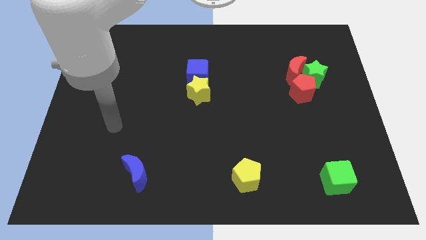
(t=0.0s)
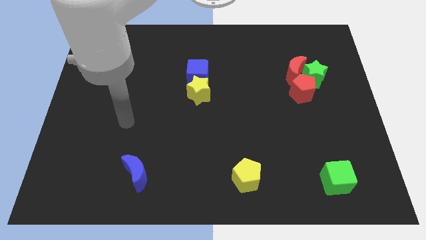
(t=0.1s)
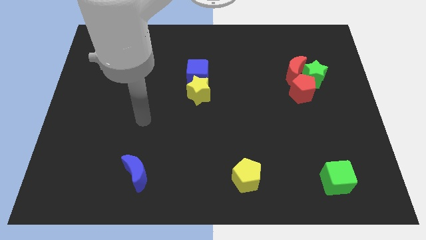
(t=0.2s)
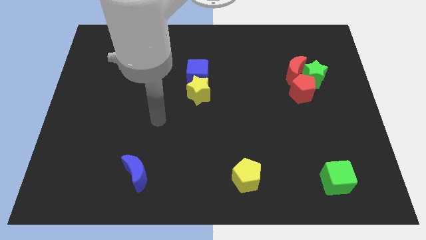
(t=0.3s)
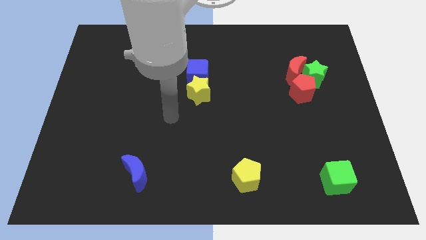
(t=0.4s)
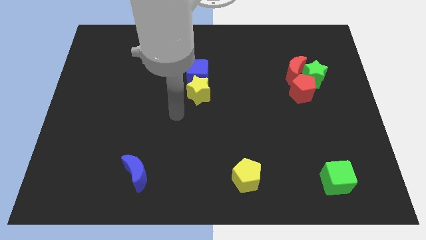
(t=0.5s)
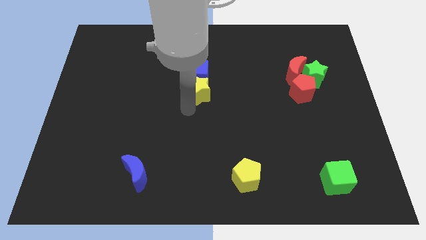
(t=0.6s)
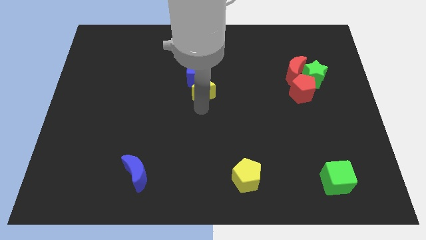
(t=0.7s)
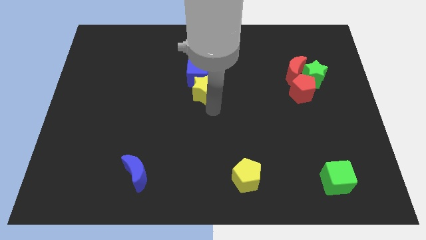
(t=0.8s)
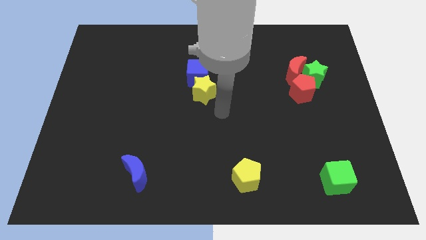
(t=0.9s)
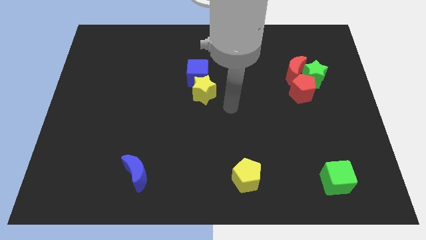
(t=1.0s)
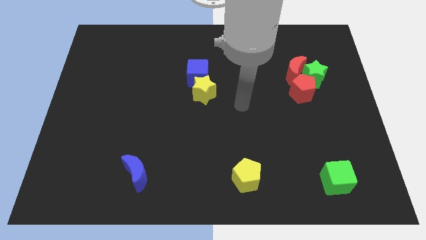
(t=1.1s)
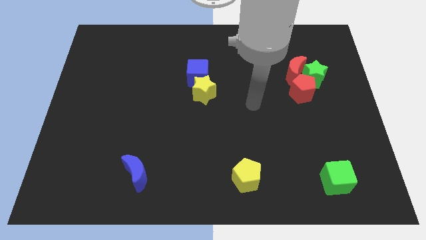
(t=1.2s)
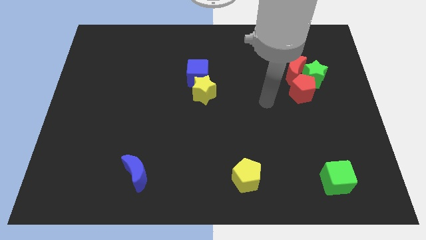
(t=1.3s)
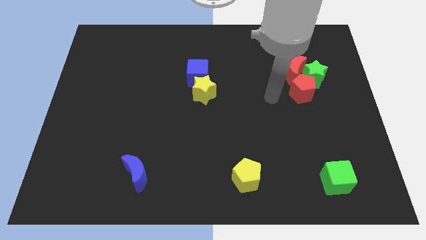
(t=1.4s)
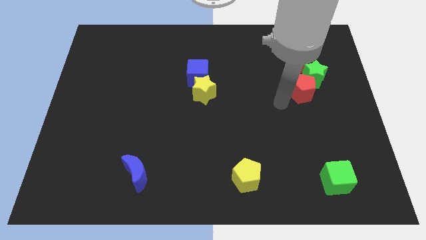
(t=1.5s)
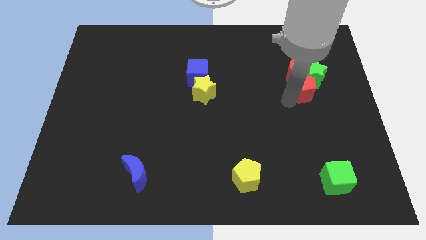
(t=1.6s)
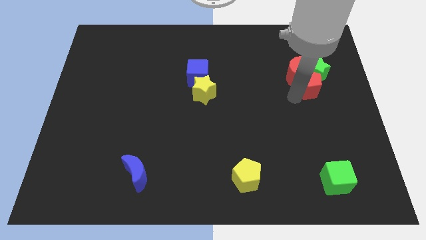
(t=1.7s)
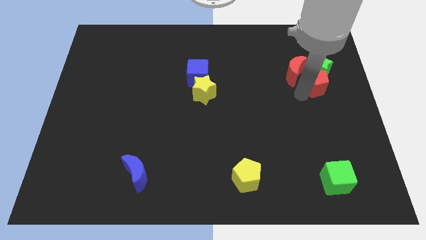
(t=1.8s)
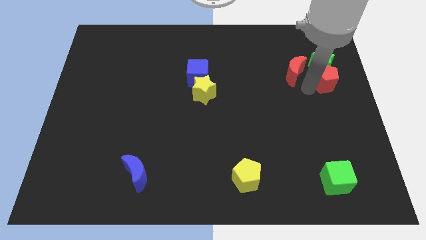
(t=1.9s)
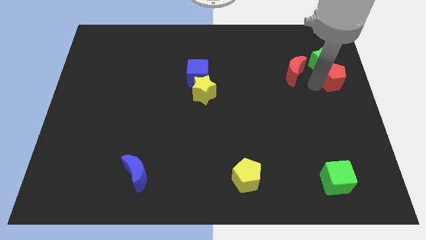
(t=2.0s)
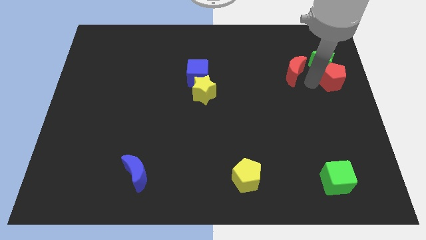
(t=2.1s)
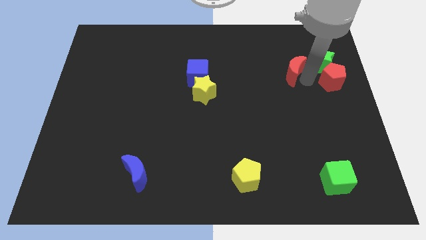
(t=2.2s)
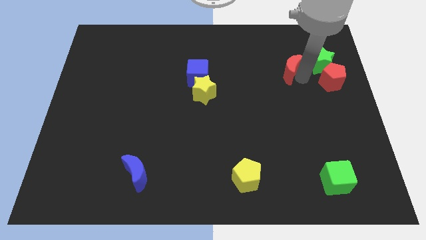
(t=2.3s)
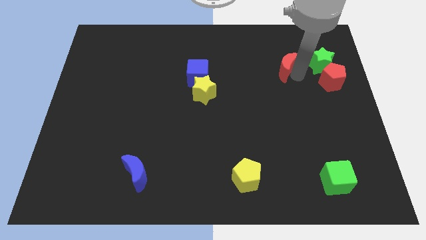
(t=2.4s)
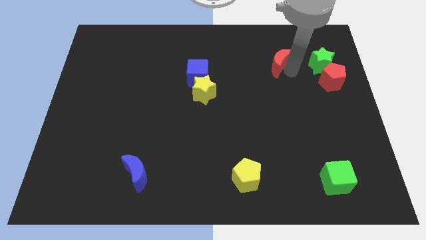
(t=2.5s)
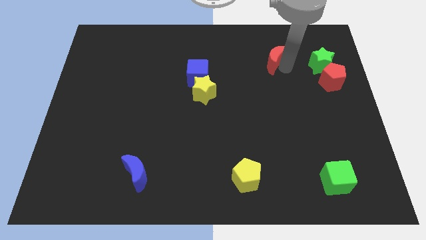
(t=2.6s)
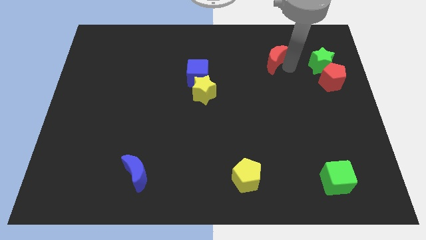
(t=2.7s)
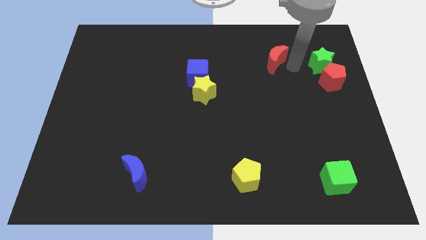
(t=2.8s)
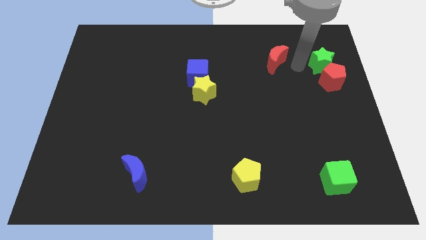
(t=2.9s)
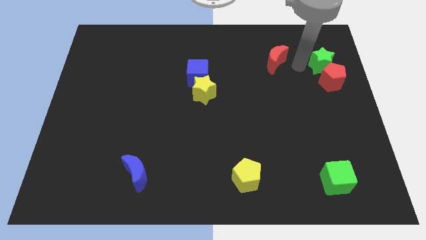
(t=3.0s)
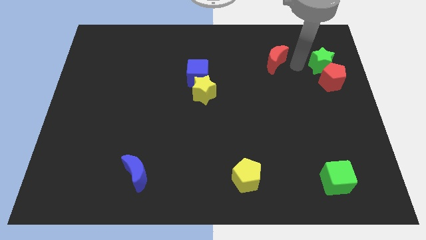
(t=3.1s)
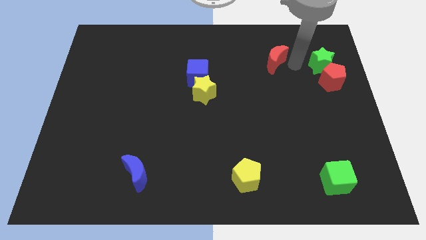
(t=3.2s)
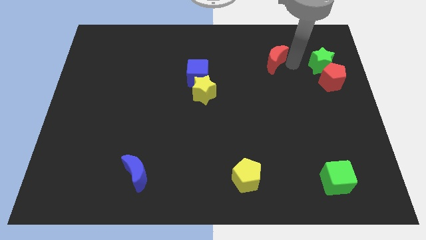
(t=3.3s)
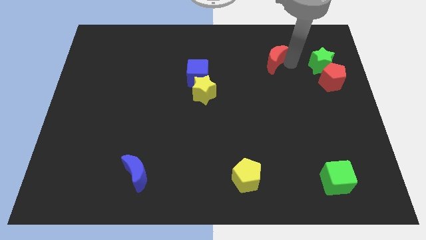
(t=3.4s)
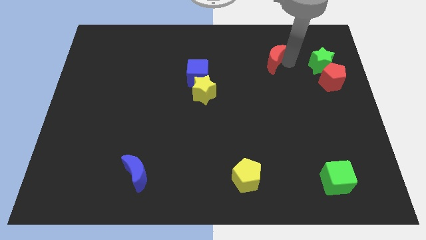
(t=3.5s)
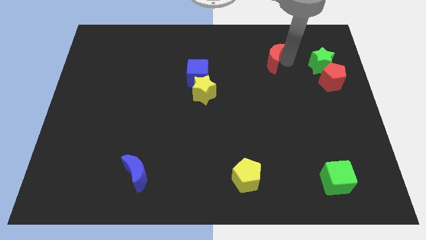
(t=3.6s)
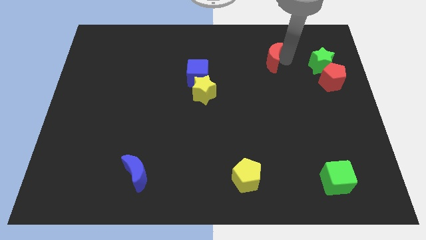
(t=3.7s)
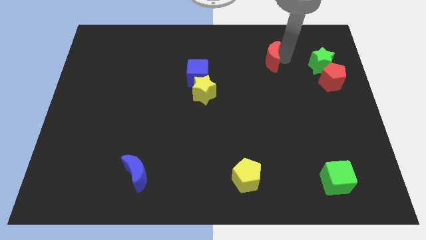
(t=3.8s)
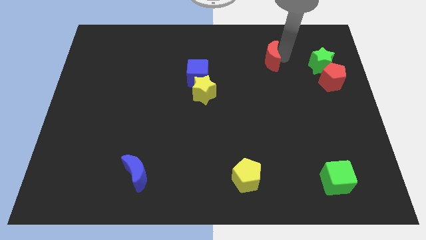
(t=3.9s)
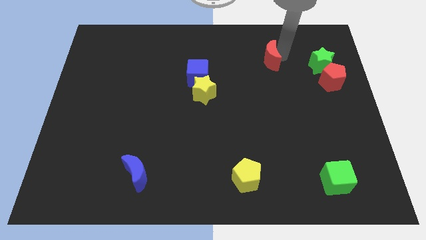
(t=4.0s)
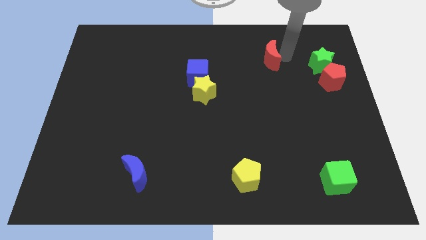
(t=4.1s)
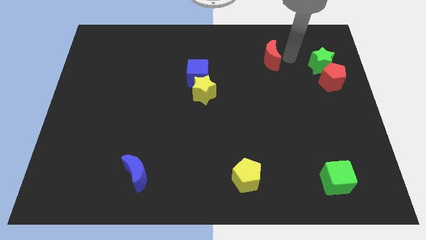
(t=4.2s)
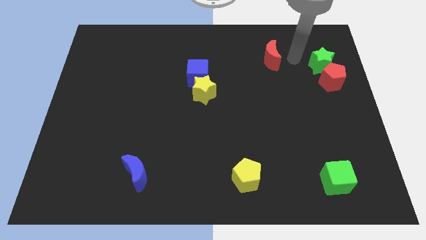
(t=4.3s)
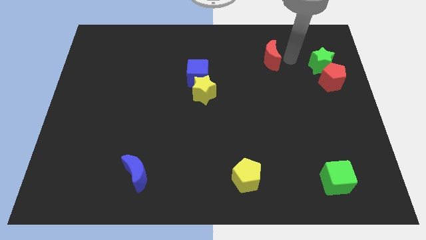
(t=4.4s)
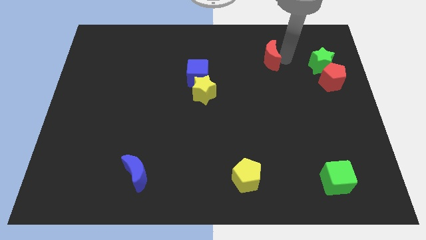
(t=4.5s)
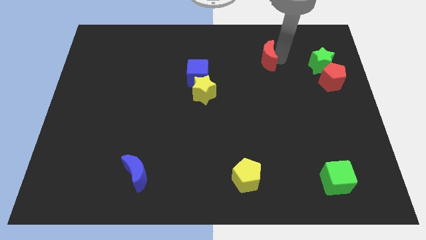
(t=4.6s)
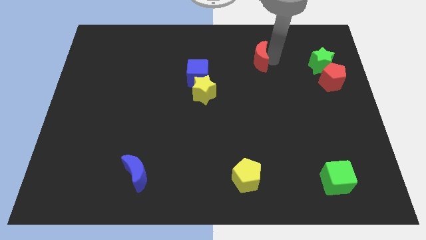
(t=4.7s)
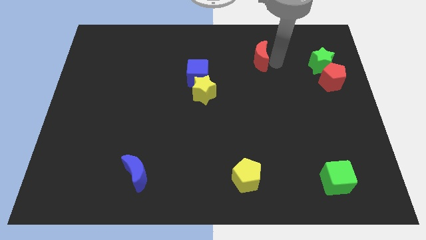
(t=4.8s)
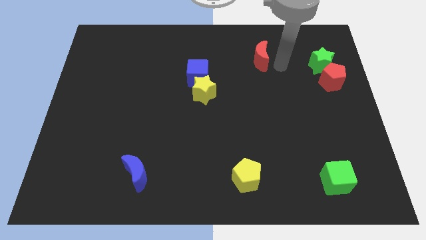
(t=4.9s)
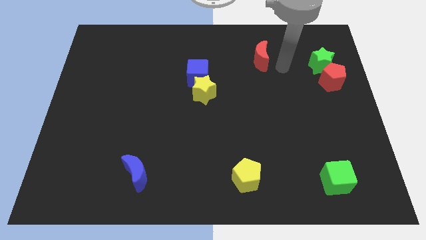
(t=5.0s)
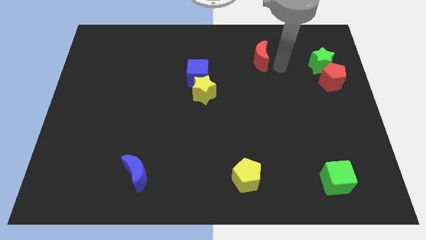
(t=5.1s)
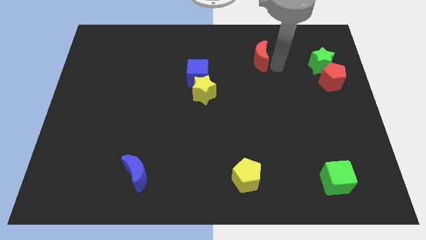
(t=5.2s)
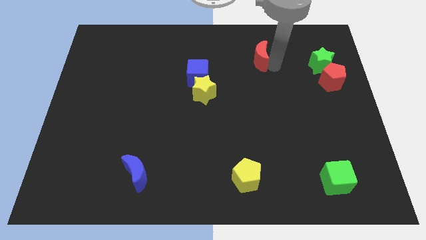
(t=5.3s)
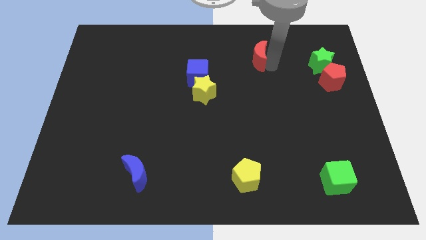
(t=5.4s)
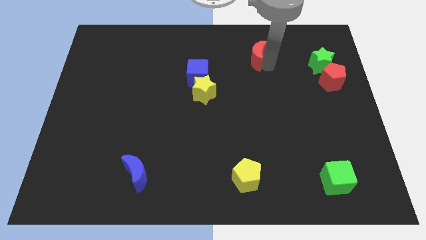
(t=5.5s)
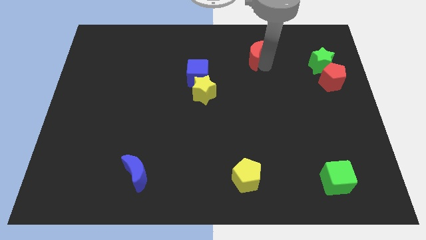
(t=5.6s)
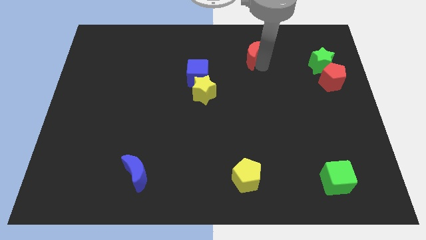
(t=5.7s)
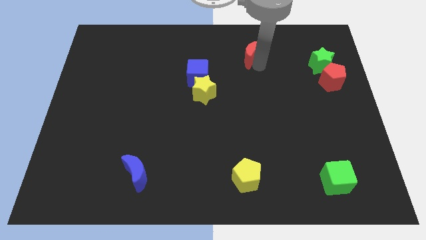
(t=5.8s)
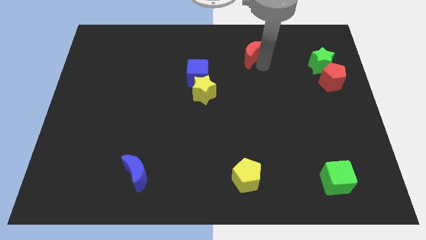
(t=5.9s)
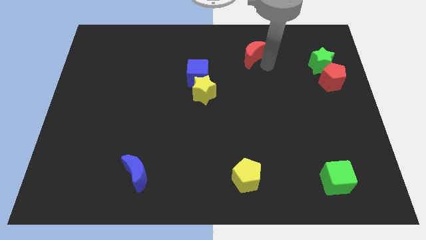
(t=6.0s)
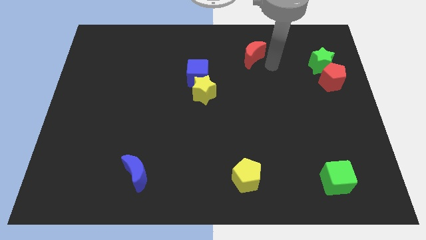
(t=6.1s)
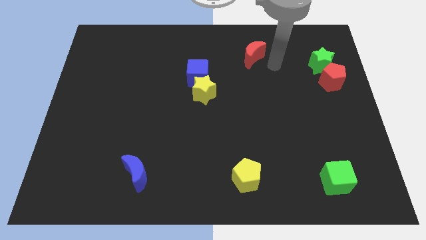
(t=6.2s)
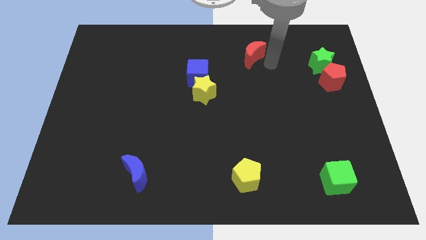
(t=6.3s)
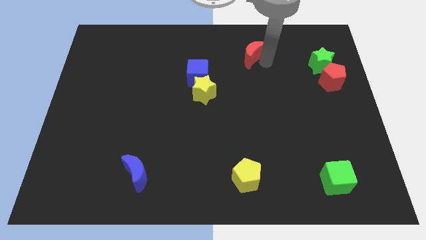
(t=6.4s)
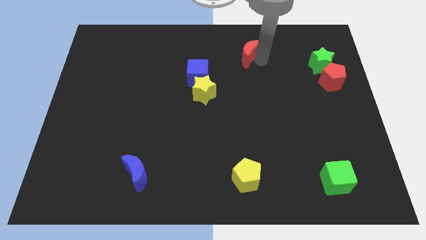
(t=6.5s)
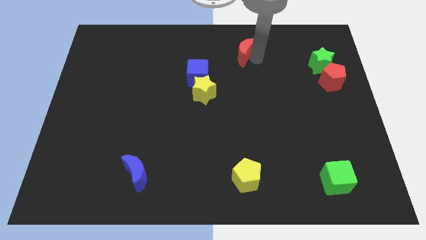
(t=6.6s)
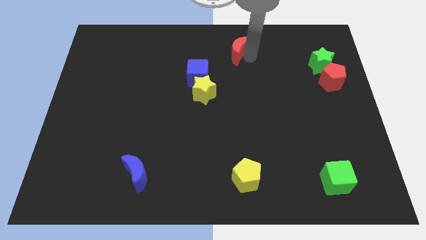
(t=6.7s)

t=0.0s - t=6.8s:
push the red moon to the top
